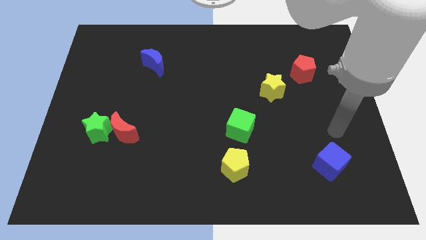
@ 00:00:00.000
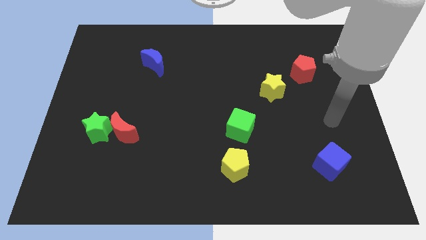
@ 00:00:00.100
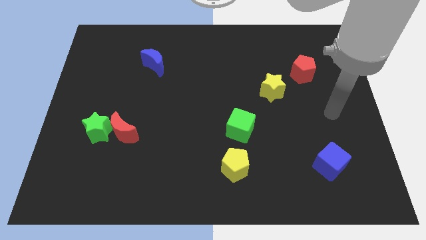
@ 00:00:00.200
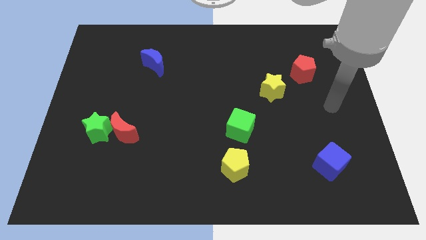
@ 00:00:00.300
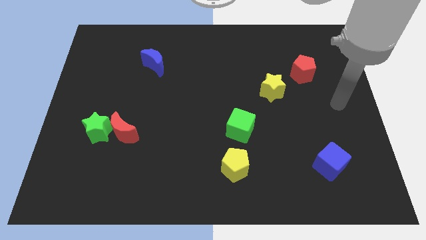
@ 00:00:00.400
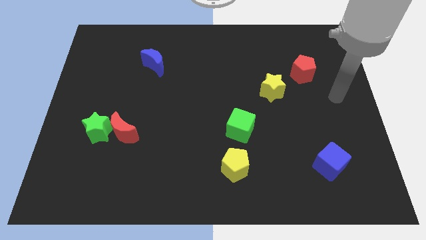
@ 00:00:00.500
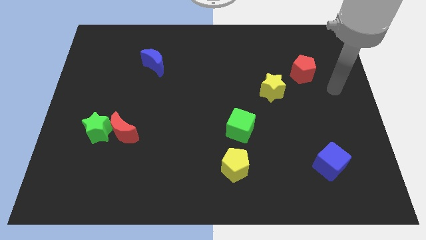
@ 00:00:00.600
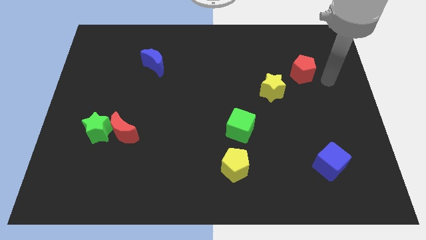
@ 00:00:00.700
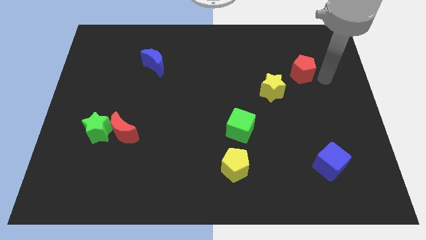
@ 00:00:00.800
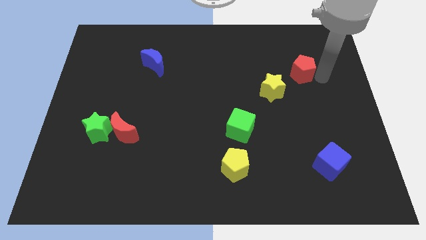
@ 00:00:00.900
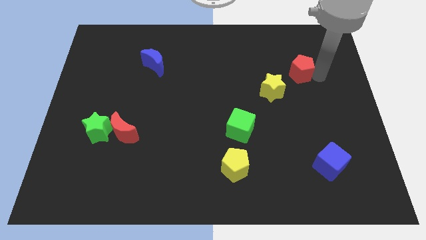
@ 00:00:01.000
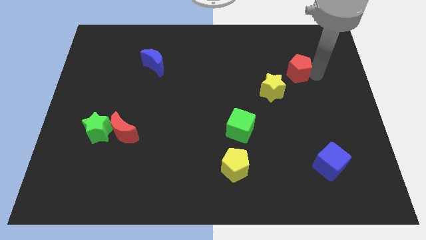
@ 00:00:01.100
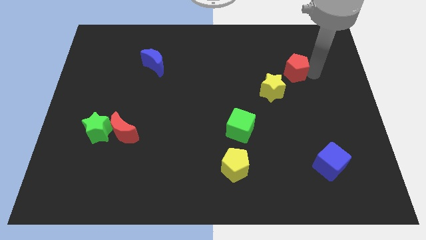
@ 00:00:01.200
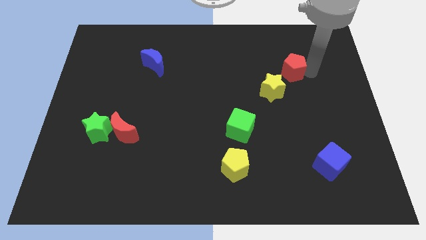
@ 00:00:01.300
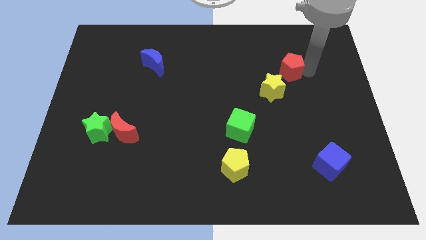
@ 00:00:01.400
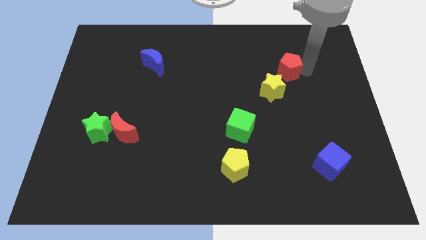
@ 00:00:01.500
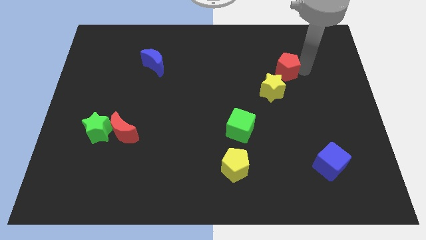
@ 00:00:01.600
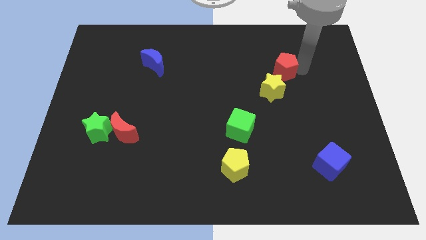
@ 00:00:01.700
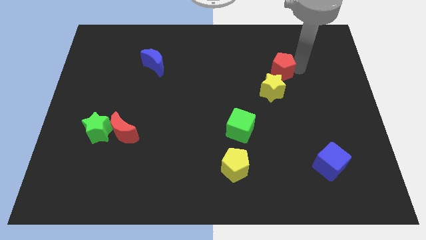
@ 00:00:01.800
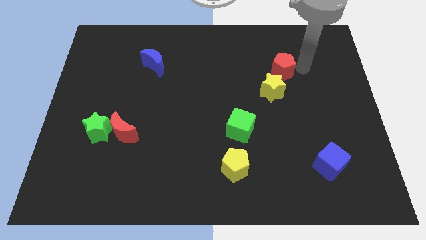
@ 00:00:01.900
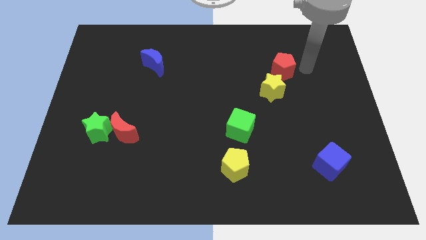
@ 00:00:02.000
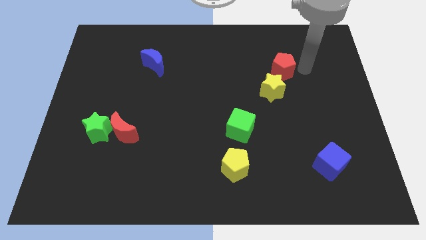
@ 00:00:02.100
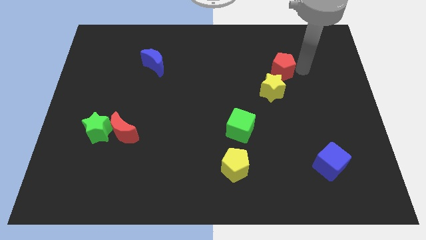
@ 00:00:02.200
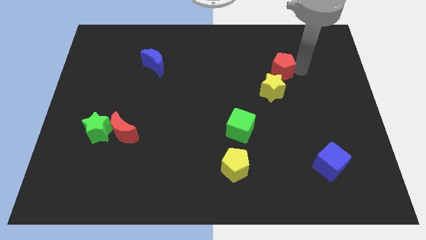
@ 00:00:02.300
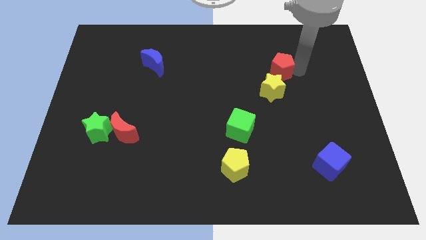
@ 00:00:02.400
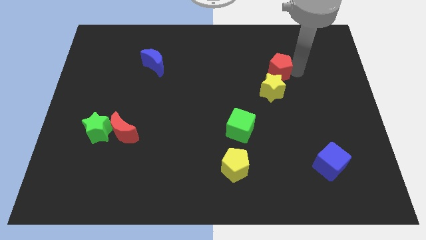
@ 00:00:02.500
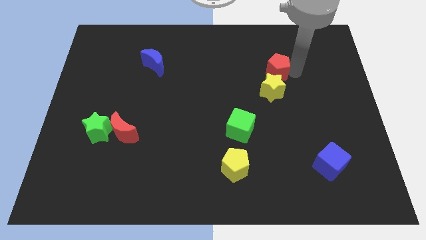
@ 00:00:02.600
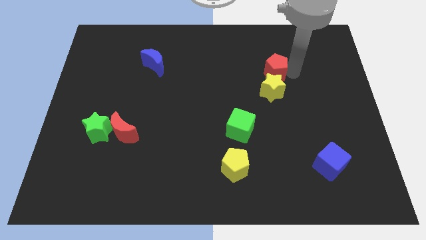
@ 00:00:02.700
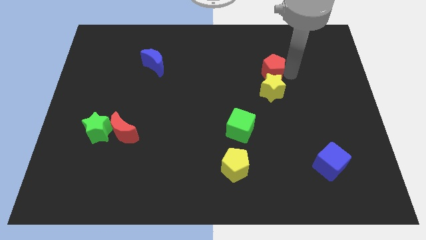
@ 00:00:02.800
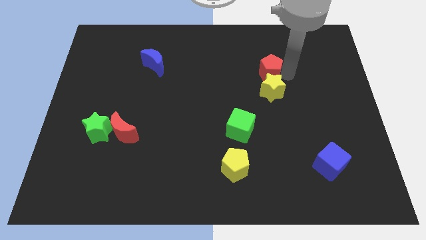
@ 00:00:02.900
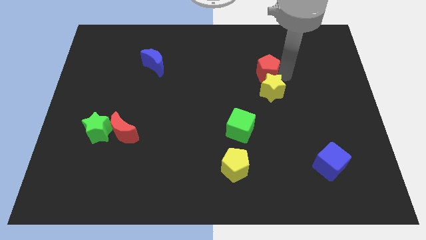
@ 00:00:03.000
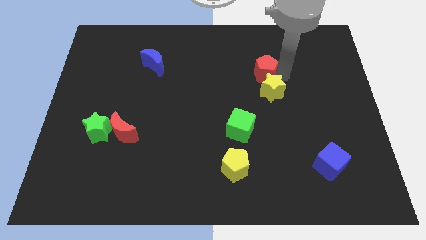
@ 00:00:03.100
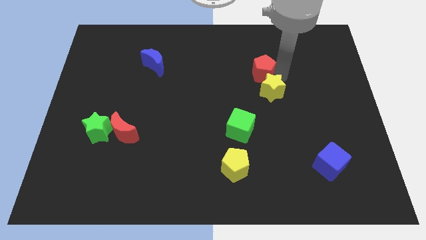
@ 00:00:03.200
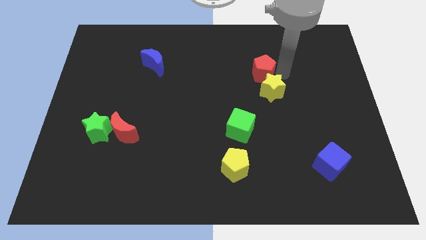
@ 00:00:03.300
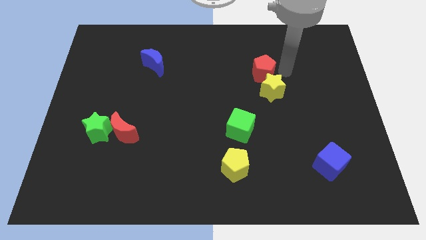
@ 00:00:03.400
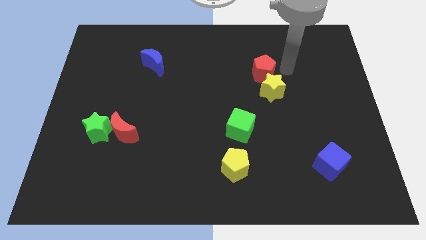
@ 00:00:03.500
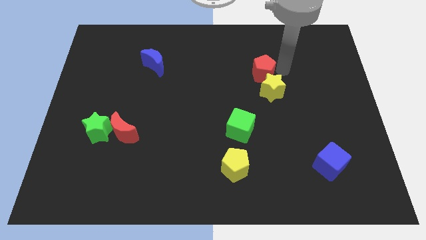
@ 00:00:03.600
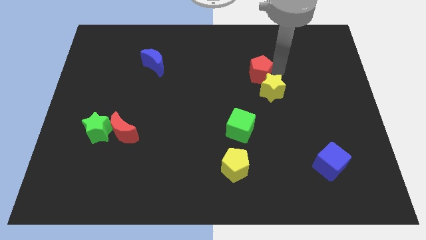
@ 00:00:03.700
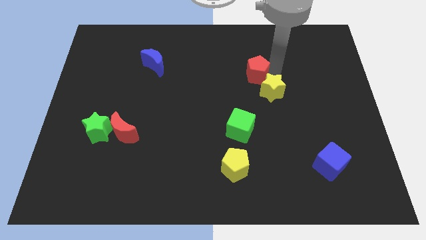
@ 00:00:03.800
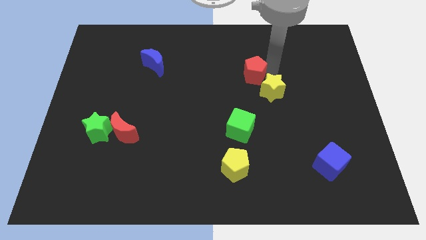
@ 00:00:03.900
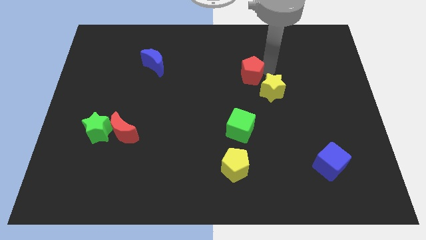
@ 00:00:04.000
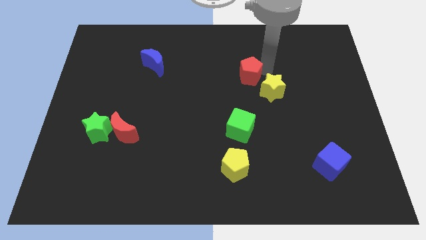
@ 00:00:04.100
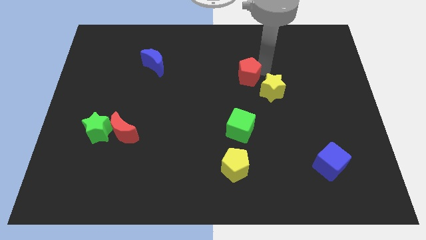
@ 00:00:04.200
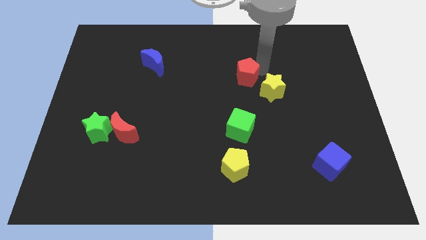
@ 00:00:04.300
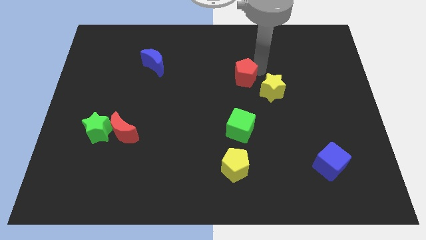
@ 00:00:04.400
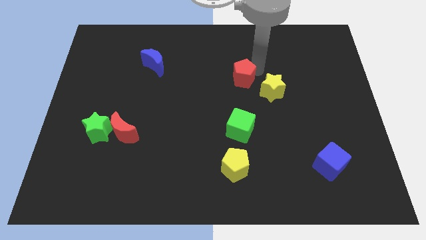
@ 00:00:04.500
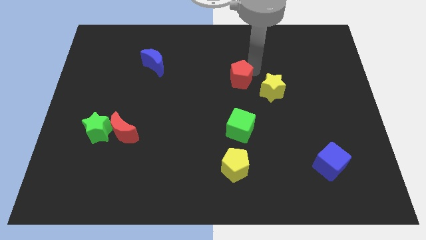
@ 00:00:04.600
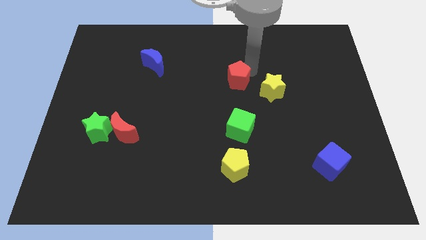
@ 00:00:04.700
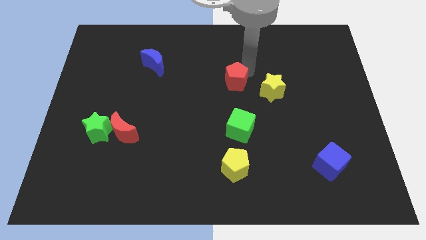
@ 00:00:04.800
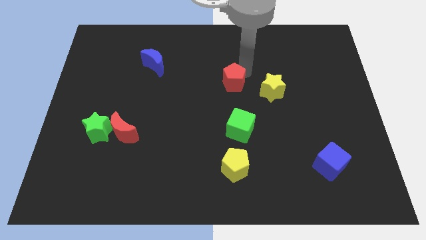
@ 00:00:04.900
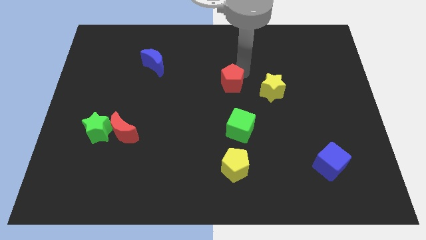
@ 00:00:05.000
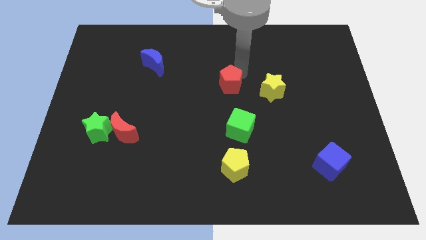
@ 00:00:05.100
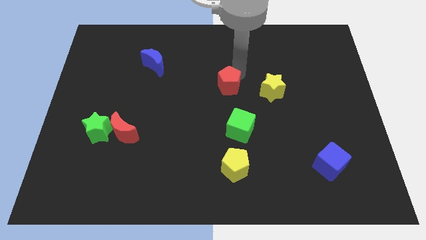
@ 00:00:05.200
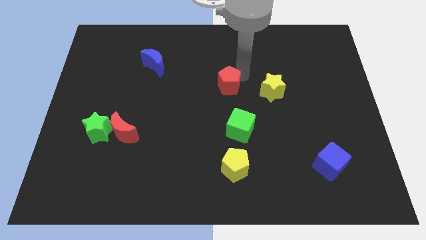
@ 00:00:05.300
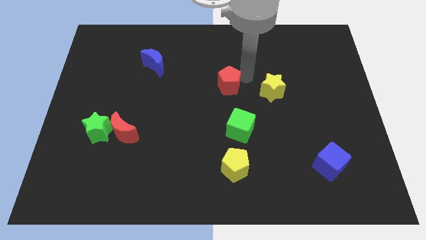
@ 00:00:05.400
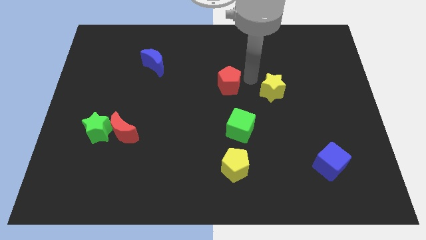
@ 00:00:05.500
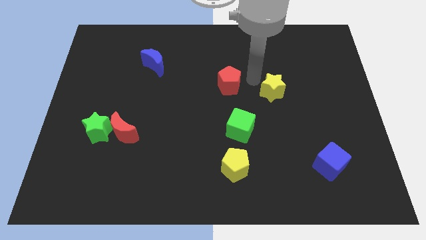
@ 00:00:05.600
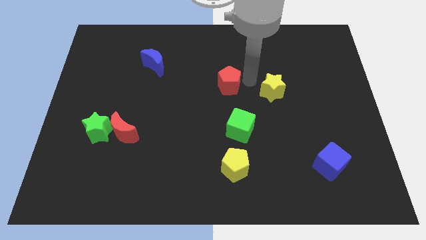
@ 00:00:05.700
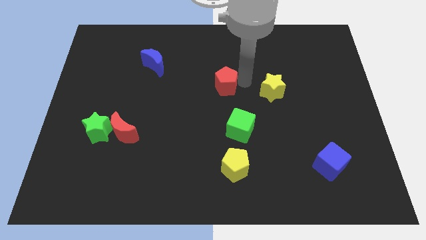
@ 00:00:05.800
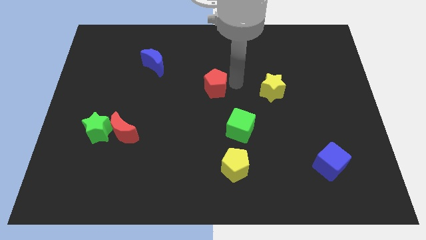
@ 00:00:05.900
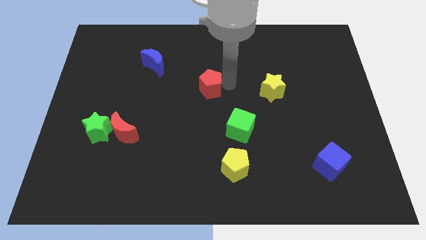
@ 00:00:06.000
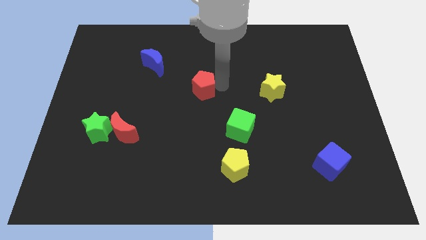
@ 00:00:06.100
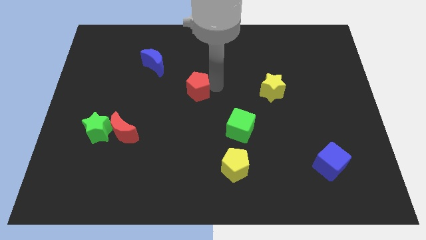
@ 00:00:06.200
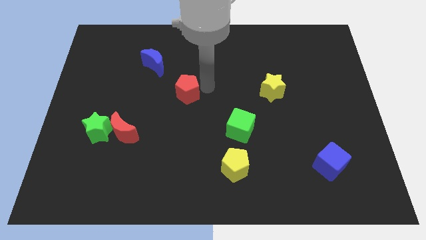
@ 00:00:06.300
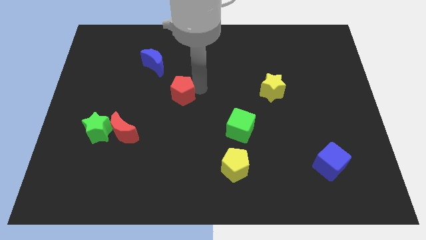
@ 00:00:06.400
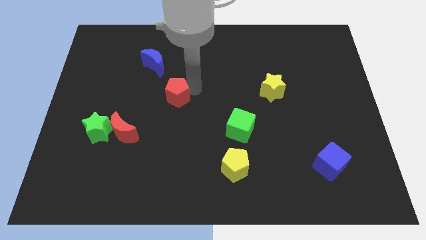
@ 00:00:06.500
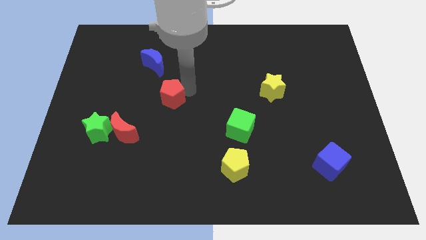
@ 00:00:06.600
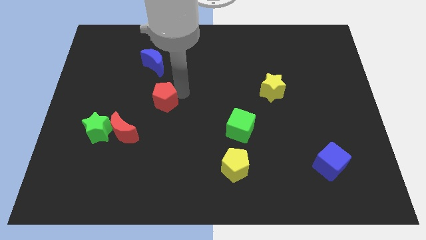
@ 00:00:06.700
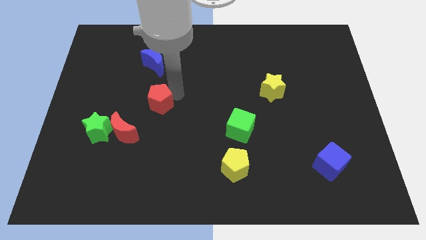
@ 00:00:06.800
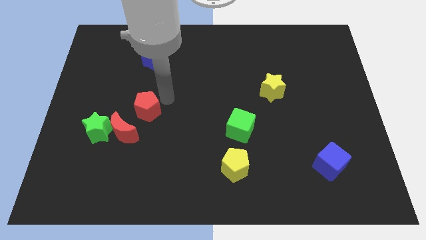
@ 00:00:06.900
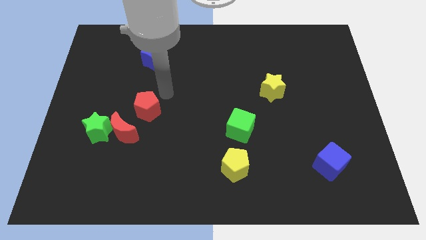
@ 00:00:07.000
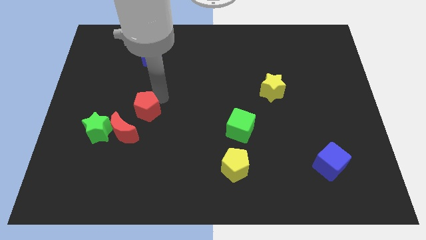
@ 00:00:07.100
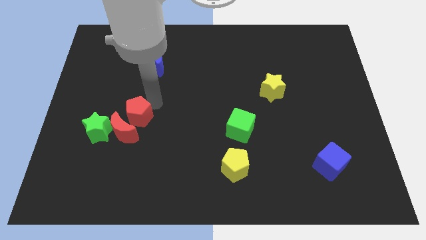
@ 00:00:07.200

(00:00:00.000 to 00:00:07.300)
push the red pentagon close to the red moon

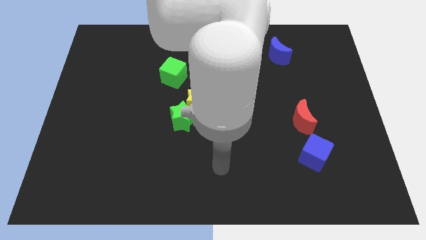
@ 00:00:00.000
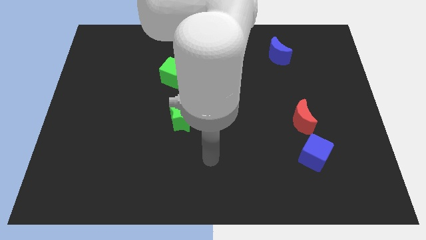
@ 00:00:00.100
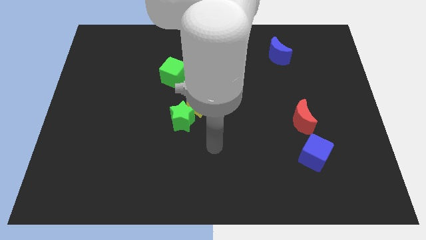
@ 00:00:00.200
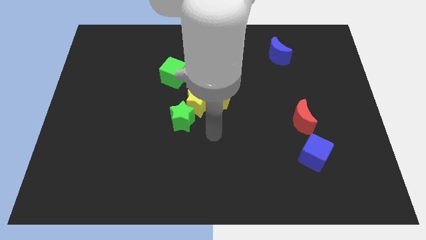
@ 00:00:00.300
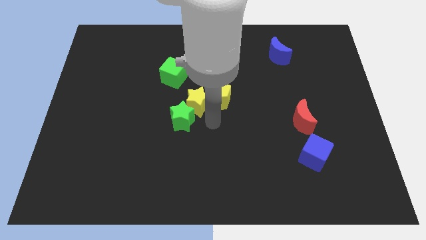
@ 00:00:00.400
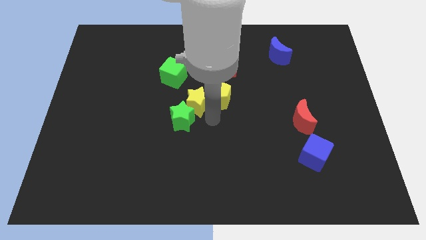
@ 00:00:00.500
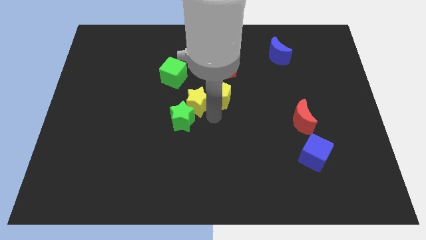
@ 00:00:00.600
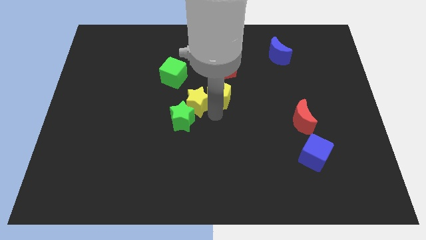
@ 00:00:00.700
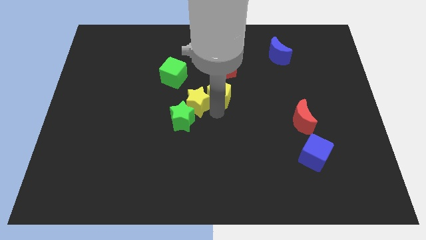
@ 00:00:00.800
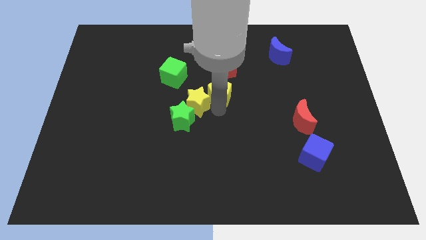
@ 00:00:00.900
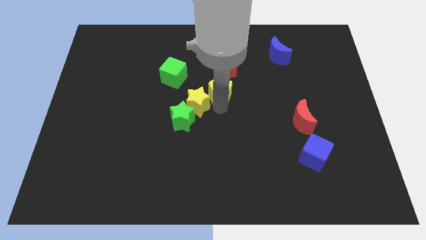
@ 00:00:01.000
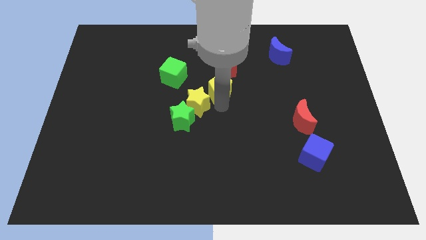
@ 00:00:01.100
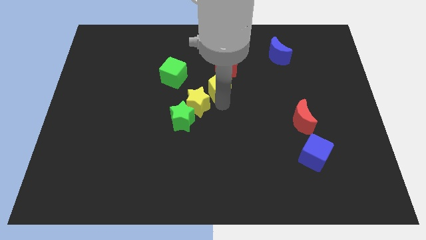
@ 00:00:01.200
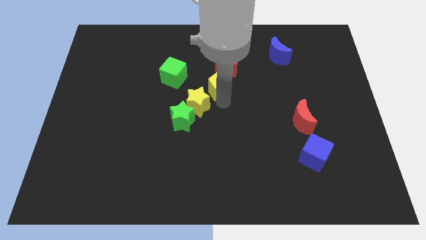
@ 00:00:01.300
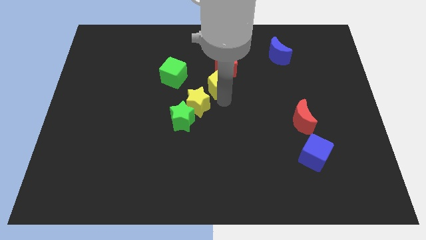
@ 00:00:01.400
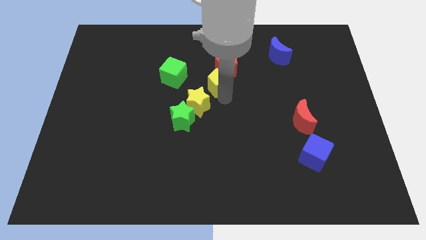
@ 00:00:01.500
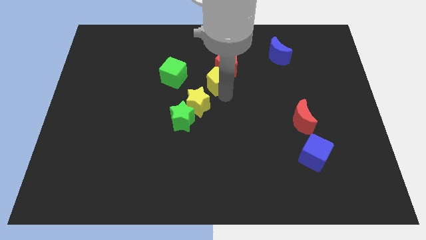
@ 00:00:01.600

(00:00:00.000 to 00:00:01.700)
slide the yellow pentagon towards the red pentagon
